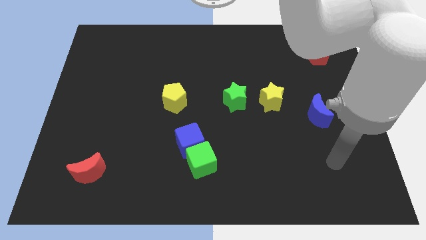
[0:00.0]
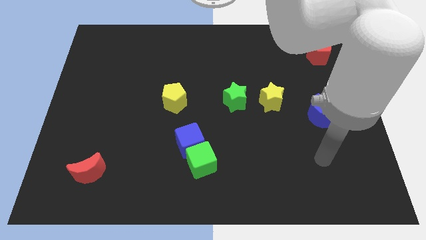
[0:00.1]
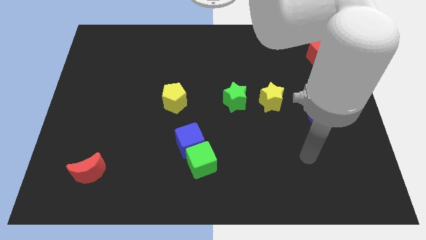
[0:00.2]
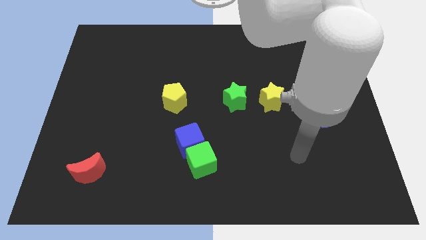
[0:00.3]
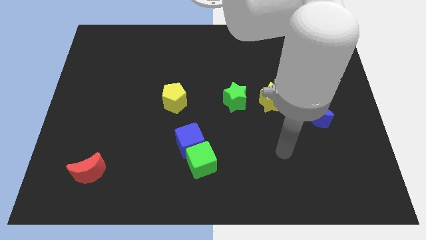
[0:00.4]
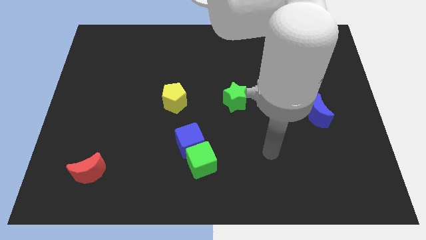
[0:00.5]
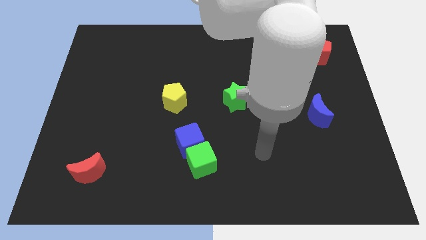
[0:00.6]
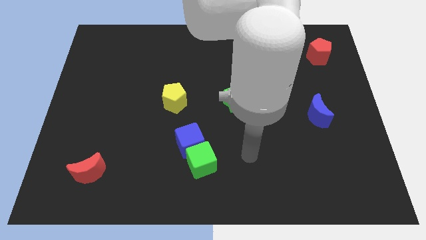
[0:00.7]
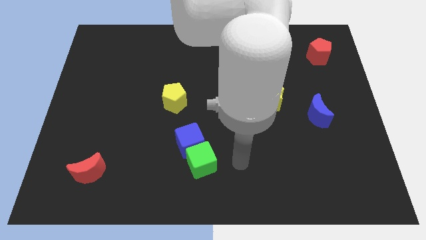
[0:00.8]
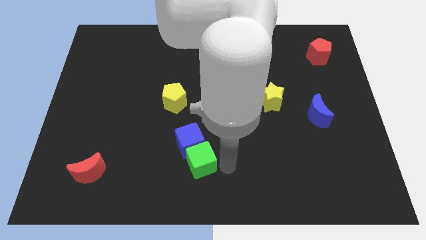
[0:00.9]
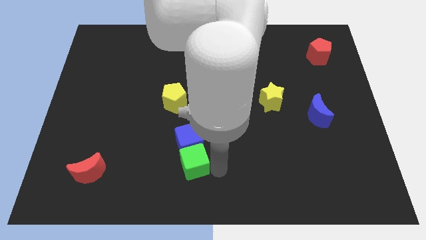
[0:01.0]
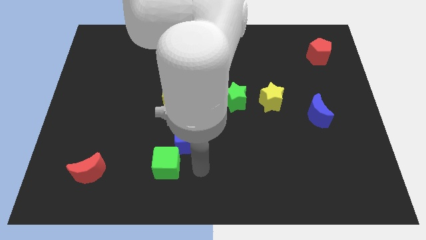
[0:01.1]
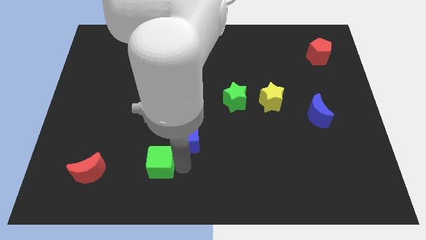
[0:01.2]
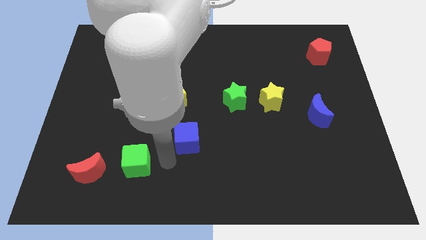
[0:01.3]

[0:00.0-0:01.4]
move the blue cube away from the green cube

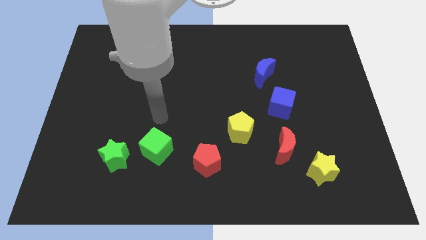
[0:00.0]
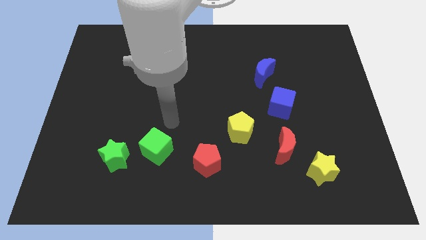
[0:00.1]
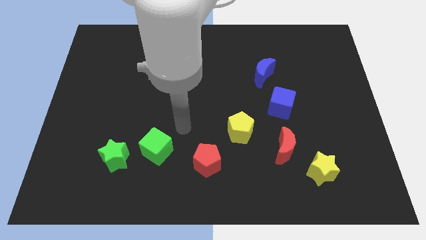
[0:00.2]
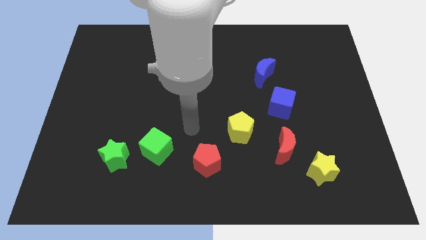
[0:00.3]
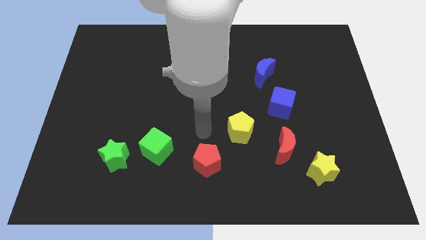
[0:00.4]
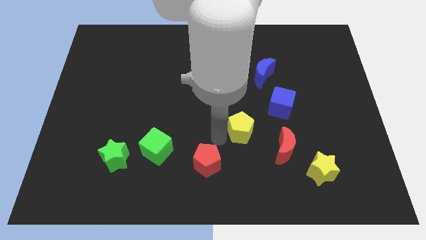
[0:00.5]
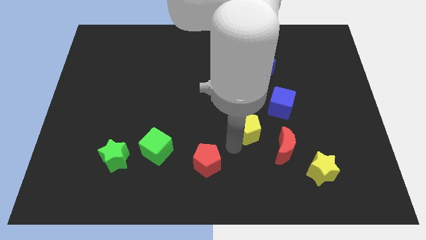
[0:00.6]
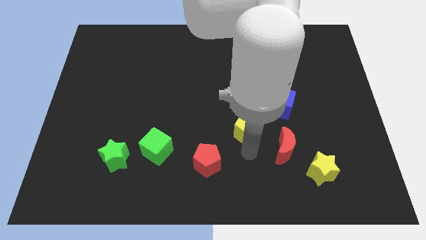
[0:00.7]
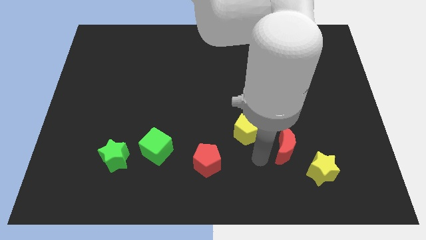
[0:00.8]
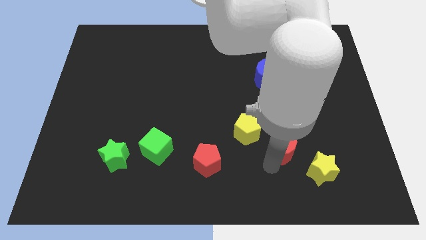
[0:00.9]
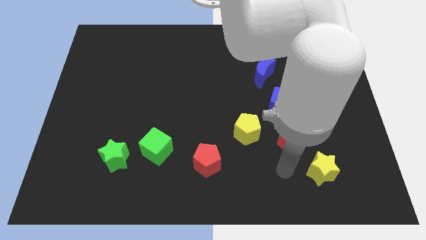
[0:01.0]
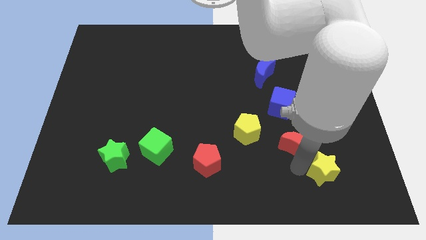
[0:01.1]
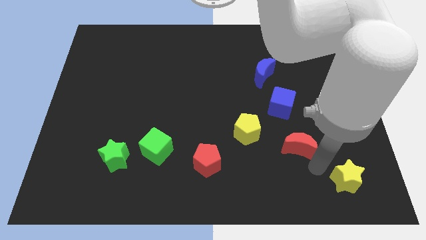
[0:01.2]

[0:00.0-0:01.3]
move the red moon away from the yellow star

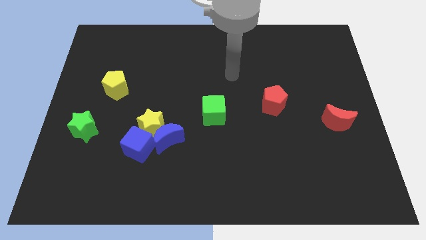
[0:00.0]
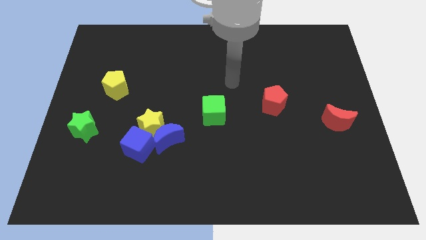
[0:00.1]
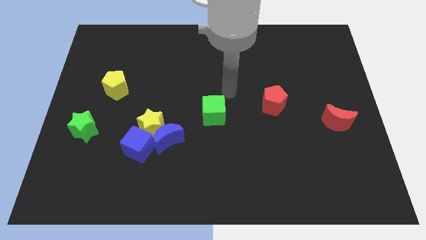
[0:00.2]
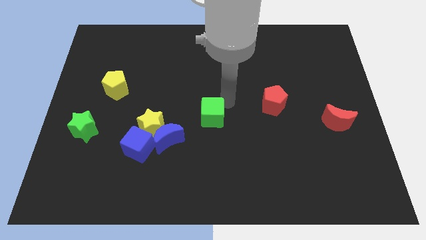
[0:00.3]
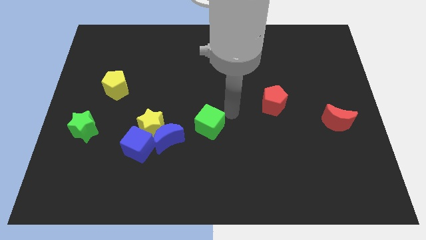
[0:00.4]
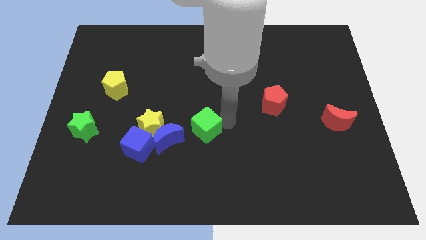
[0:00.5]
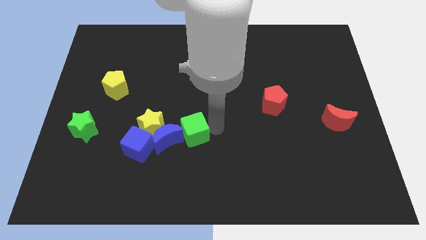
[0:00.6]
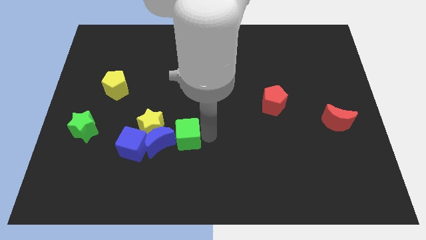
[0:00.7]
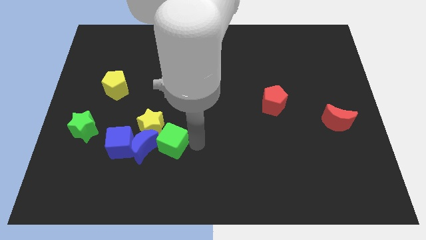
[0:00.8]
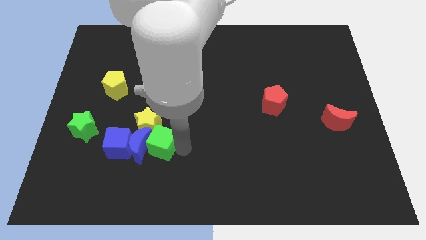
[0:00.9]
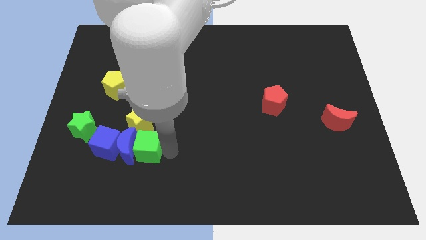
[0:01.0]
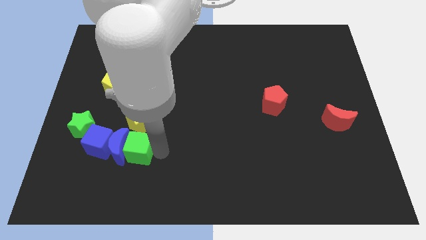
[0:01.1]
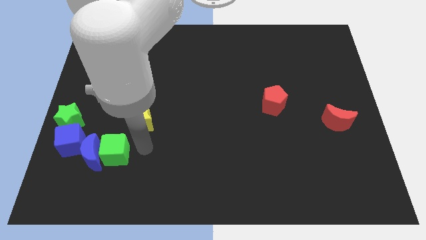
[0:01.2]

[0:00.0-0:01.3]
separate the yellow star from the blue moon and blue cube

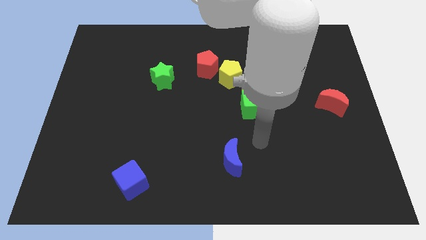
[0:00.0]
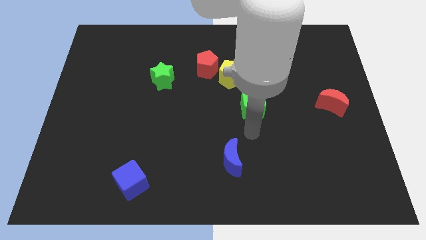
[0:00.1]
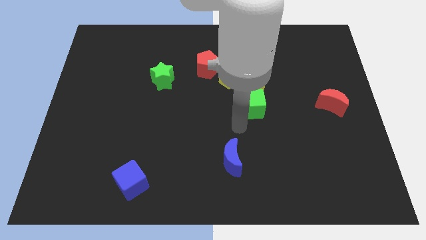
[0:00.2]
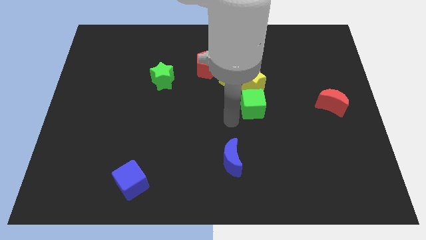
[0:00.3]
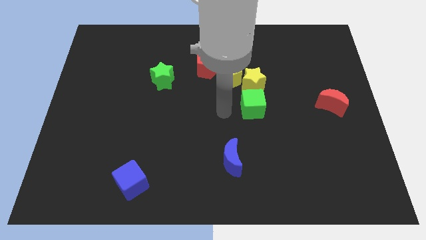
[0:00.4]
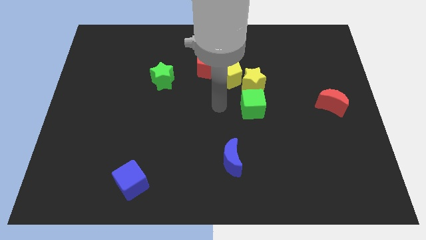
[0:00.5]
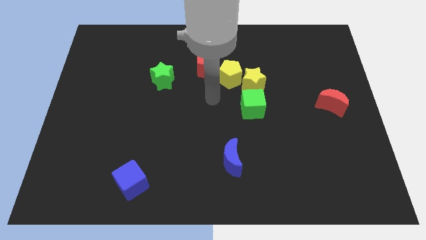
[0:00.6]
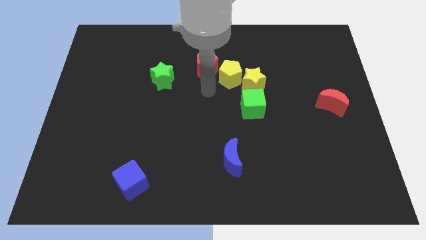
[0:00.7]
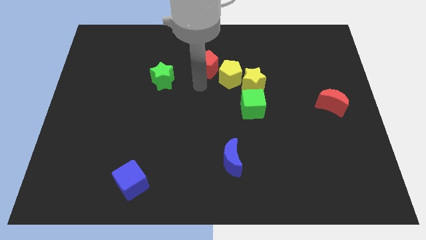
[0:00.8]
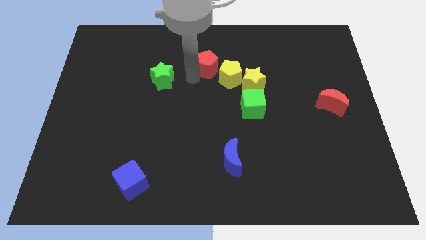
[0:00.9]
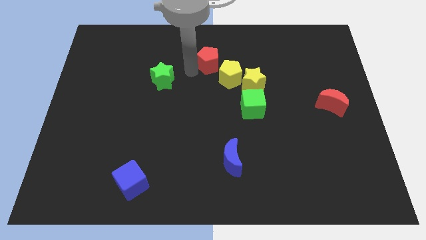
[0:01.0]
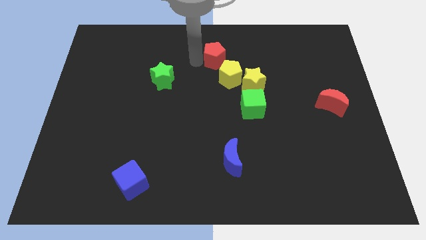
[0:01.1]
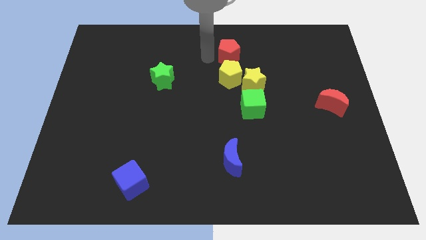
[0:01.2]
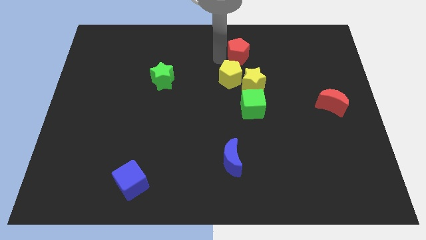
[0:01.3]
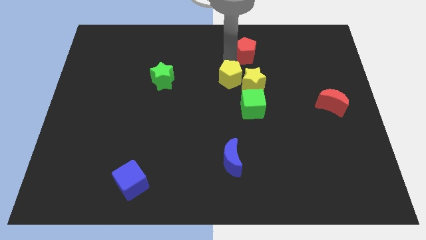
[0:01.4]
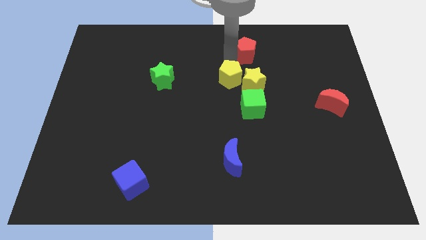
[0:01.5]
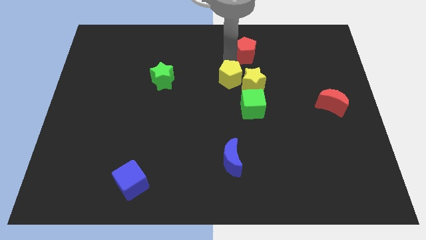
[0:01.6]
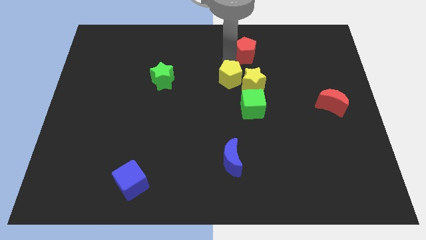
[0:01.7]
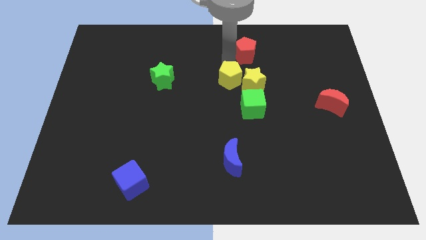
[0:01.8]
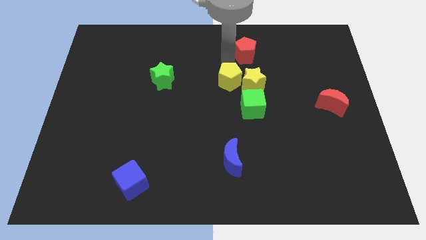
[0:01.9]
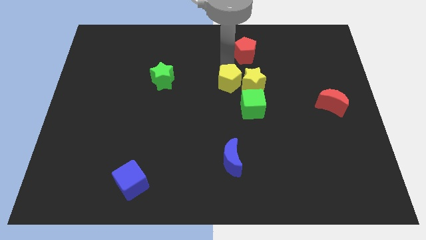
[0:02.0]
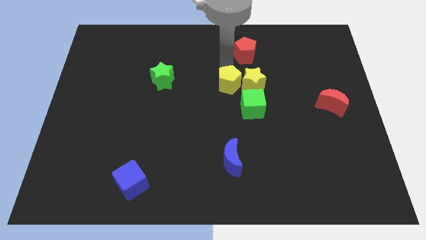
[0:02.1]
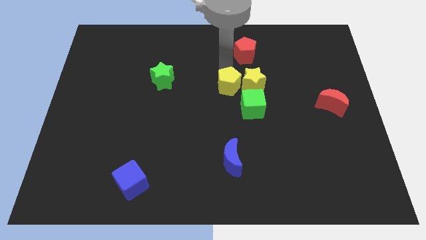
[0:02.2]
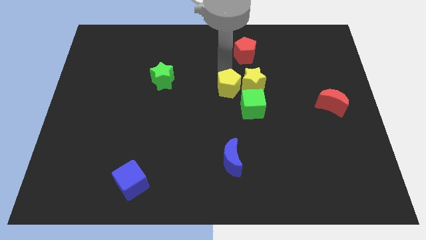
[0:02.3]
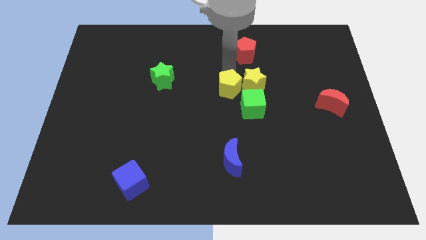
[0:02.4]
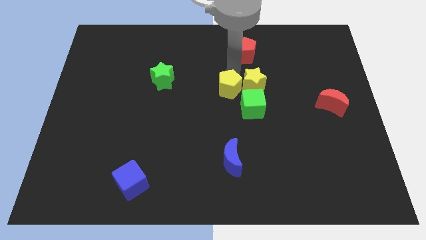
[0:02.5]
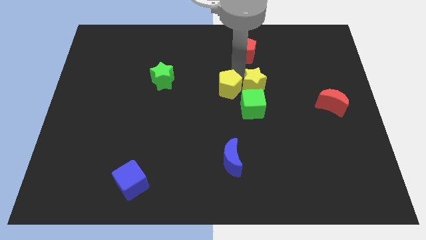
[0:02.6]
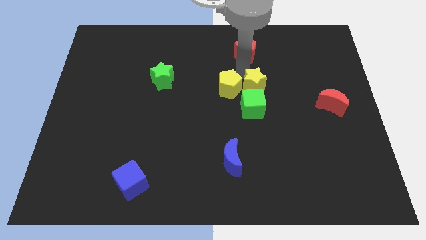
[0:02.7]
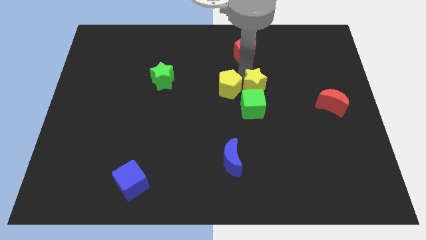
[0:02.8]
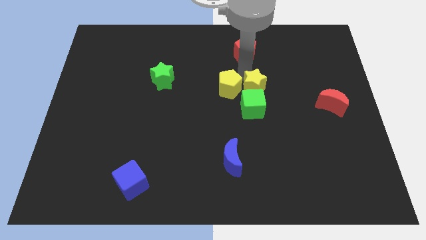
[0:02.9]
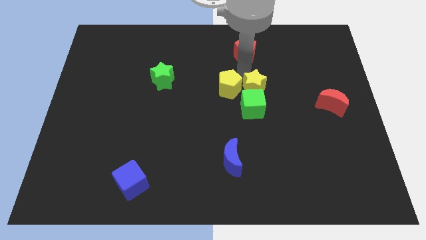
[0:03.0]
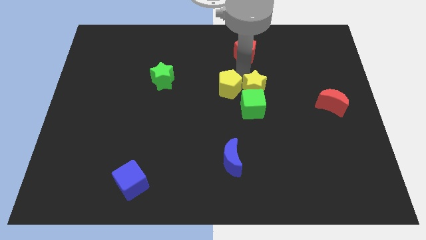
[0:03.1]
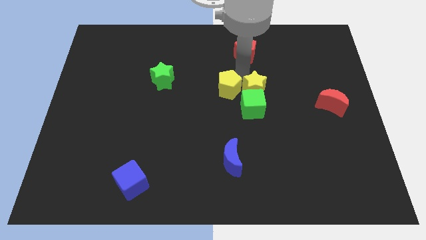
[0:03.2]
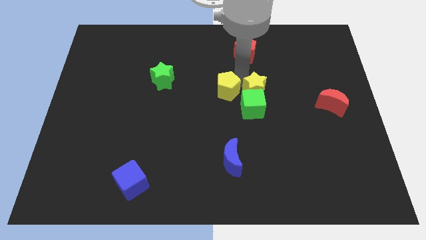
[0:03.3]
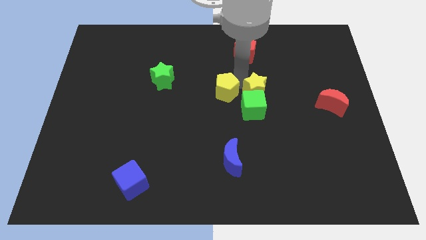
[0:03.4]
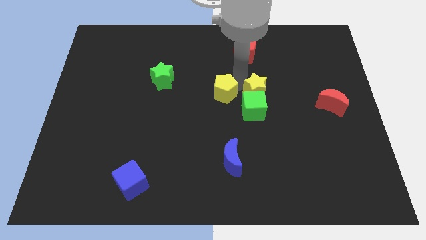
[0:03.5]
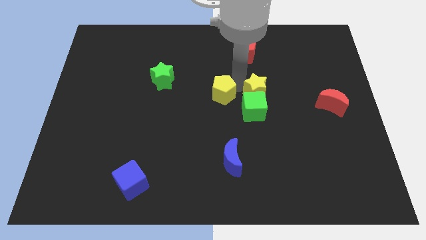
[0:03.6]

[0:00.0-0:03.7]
separate the yellow pentagon from the yellow star and red pentagon

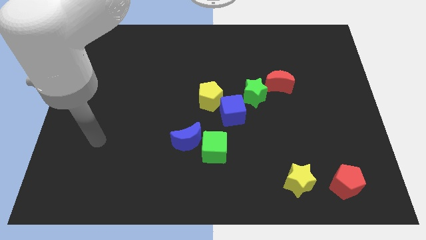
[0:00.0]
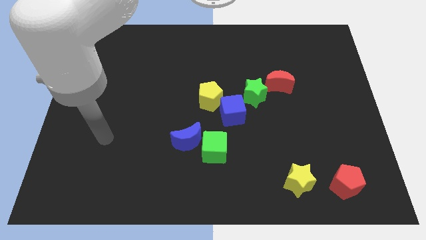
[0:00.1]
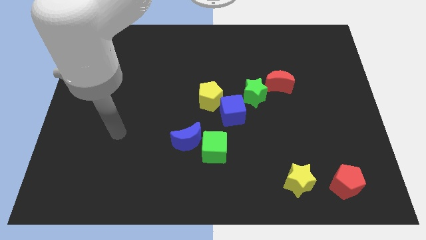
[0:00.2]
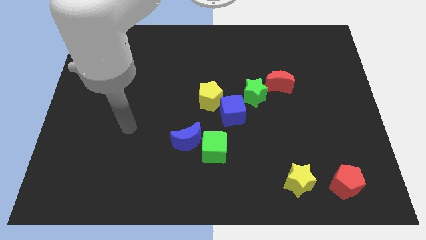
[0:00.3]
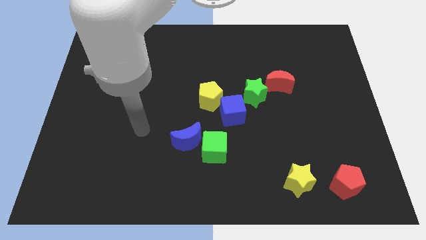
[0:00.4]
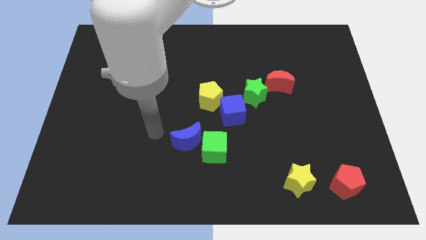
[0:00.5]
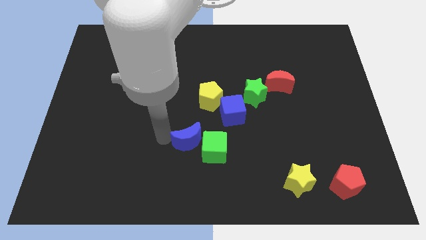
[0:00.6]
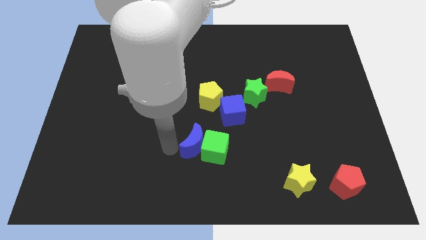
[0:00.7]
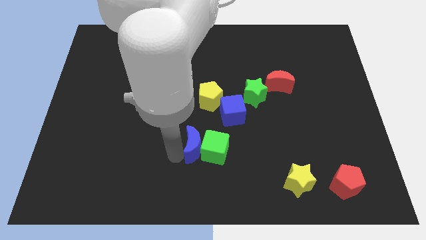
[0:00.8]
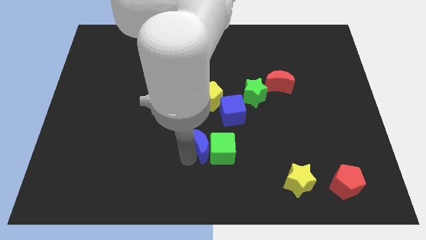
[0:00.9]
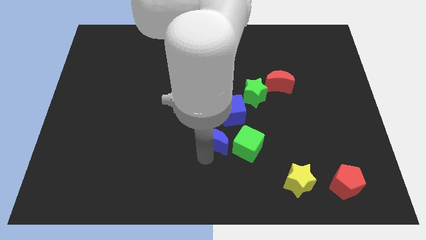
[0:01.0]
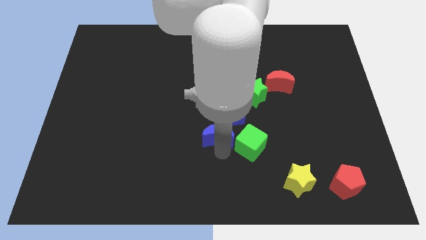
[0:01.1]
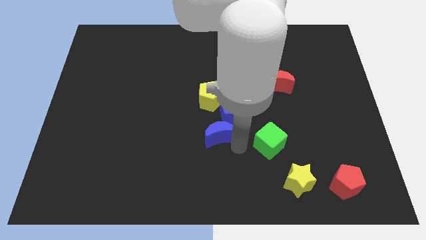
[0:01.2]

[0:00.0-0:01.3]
pull the blue moon apart from the green cube
